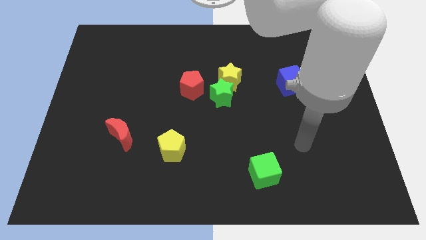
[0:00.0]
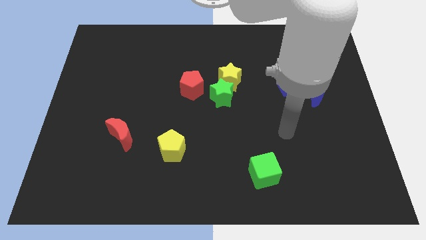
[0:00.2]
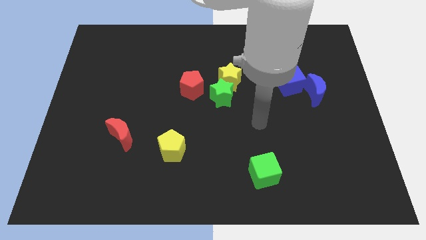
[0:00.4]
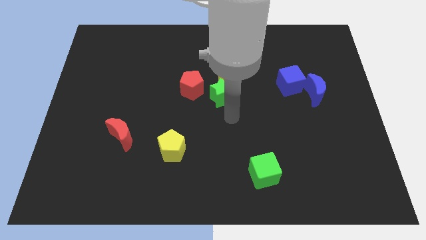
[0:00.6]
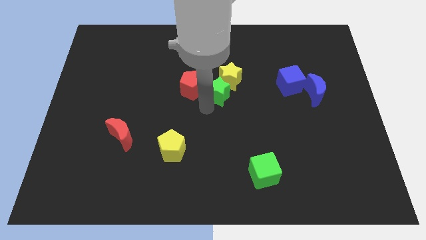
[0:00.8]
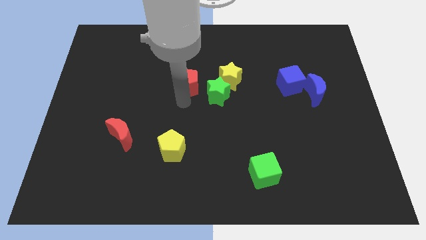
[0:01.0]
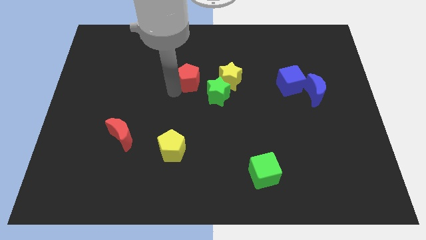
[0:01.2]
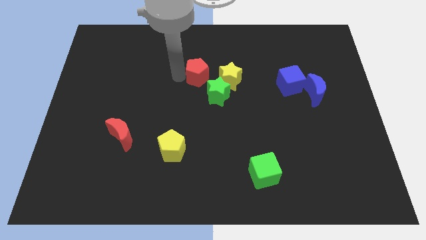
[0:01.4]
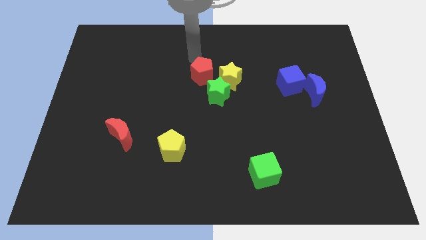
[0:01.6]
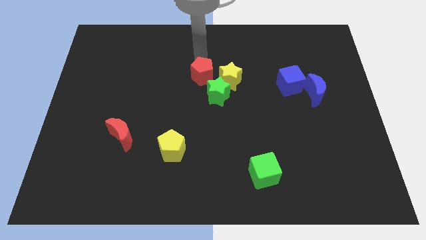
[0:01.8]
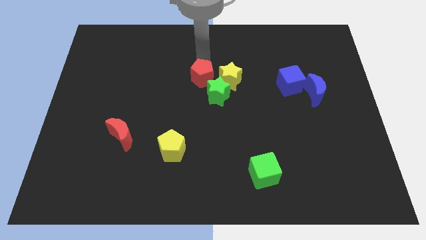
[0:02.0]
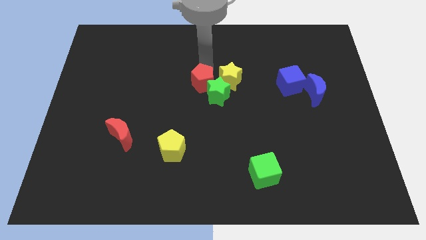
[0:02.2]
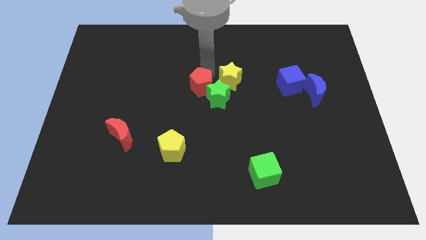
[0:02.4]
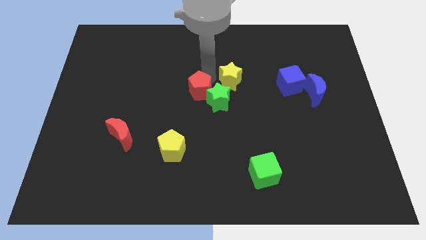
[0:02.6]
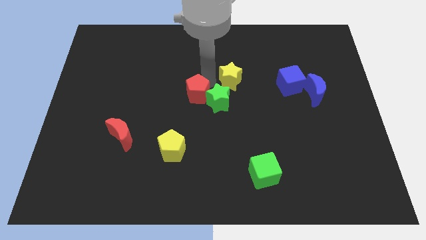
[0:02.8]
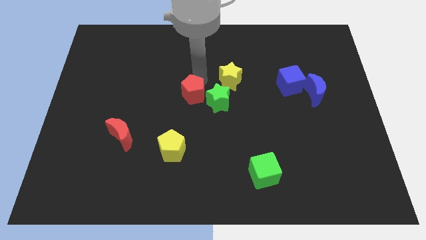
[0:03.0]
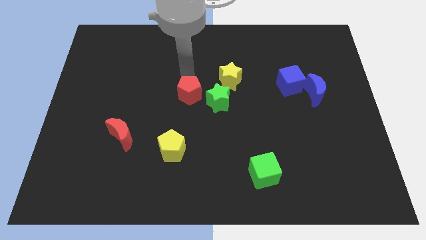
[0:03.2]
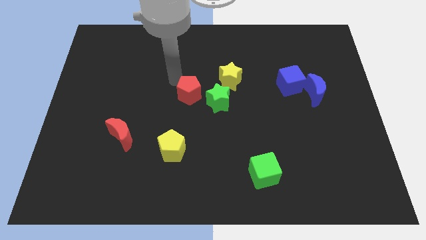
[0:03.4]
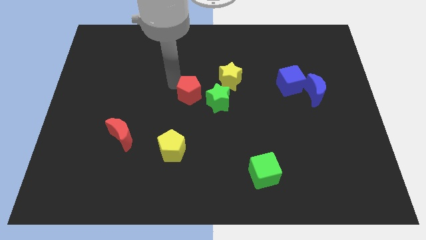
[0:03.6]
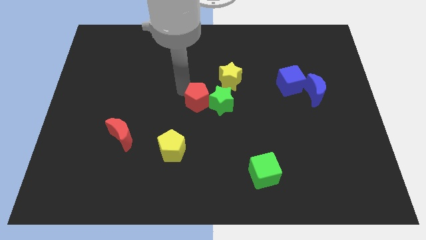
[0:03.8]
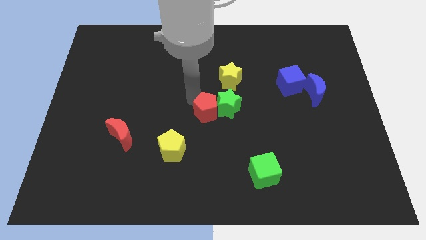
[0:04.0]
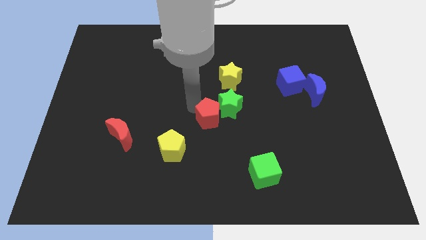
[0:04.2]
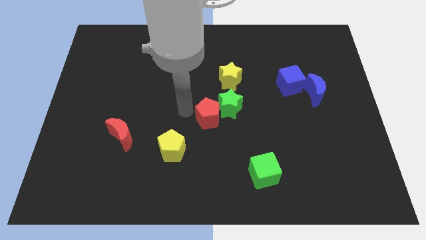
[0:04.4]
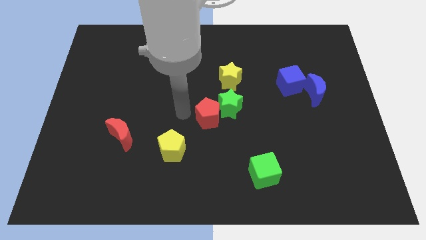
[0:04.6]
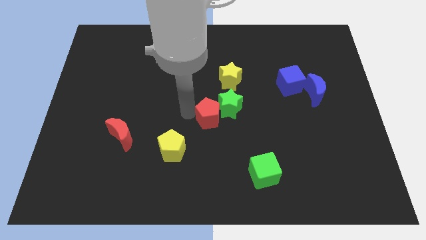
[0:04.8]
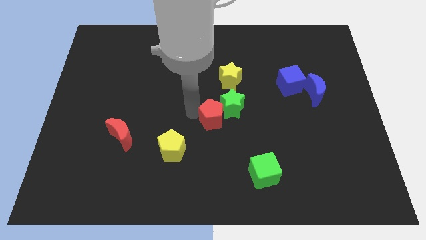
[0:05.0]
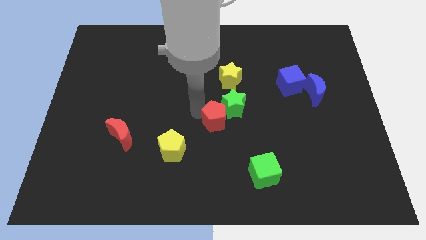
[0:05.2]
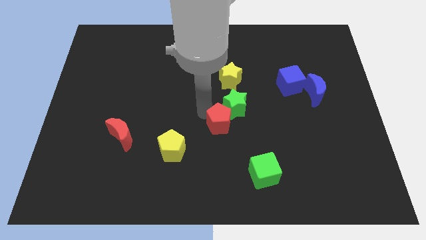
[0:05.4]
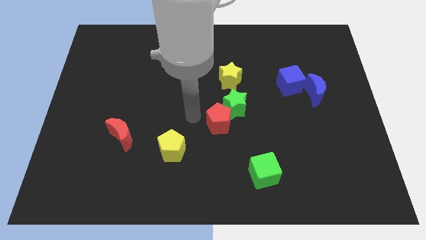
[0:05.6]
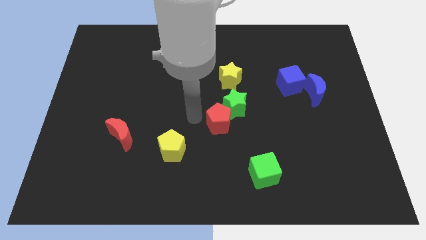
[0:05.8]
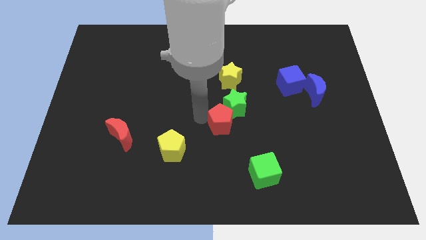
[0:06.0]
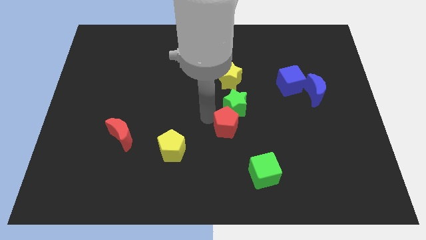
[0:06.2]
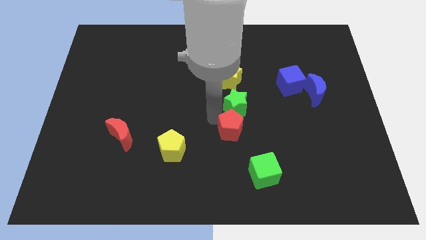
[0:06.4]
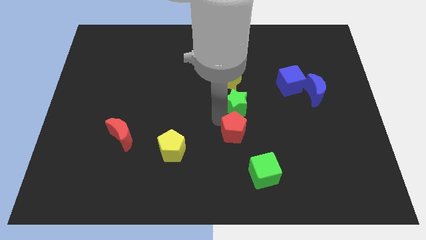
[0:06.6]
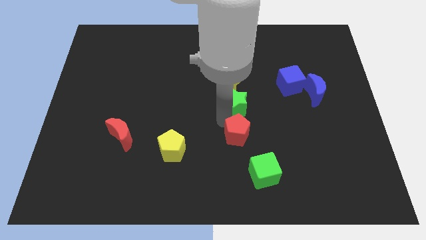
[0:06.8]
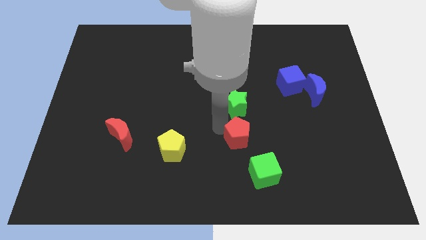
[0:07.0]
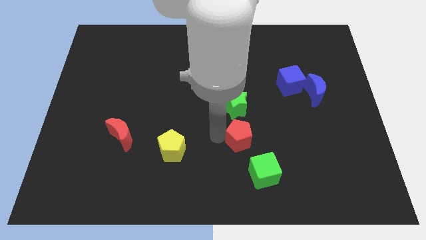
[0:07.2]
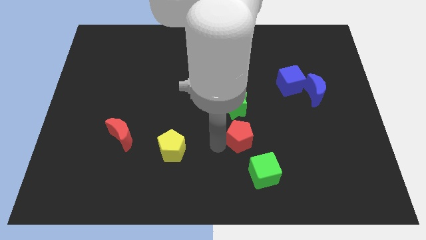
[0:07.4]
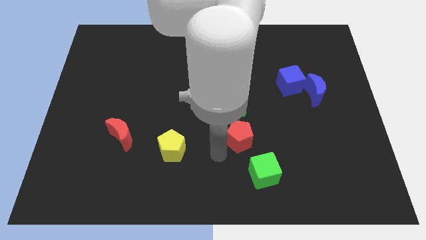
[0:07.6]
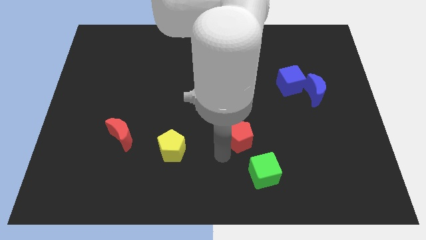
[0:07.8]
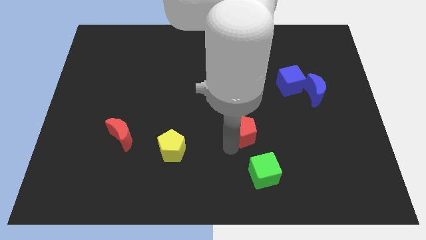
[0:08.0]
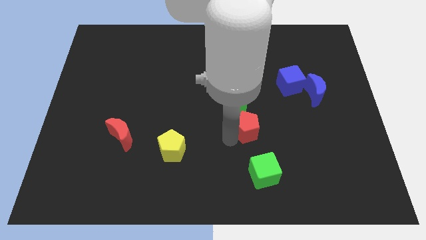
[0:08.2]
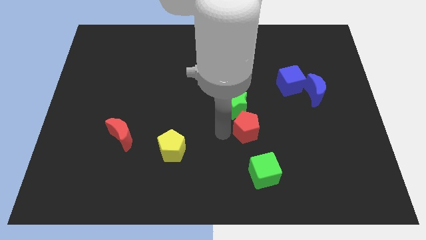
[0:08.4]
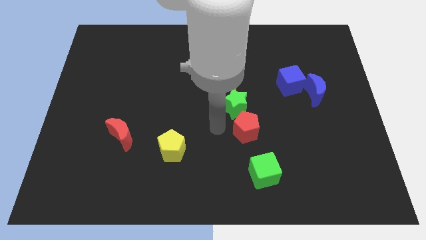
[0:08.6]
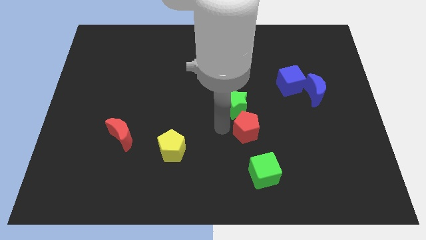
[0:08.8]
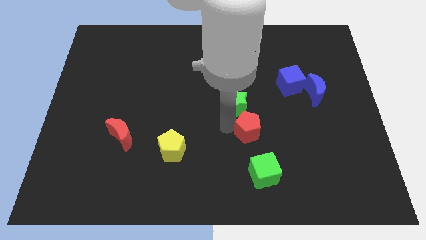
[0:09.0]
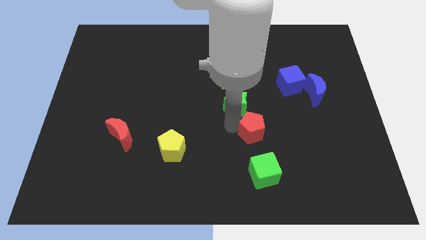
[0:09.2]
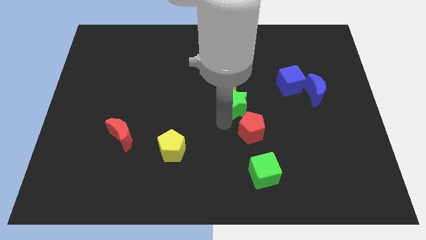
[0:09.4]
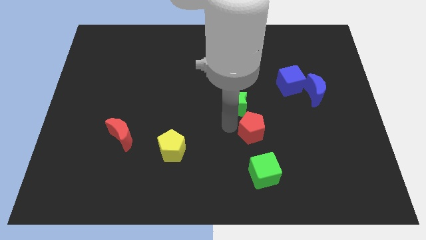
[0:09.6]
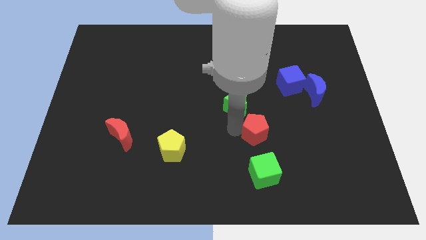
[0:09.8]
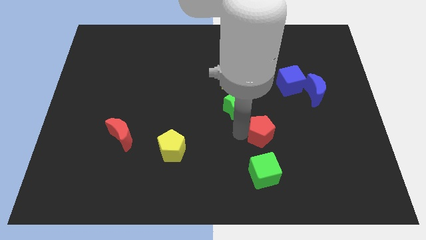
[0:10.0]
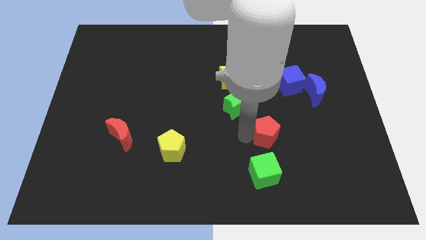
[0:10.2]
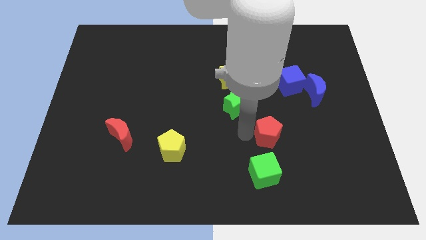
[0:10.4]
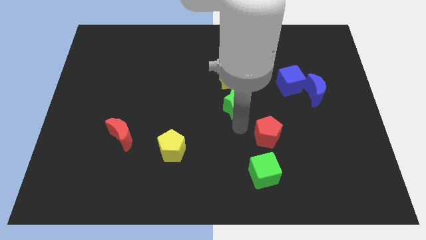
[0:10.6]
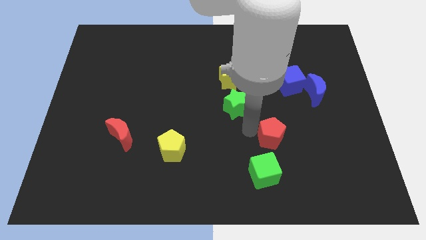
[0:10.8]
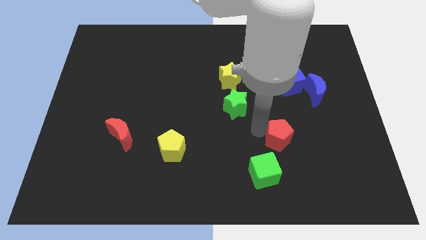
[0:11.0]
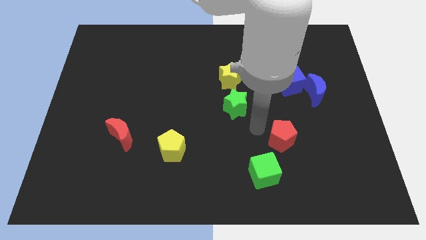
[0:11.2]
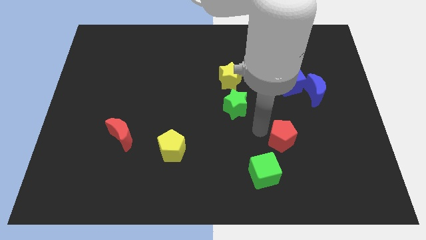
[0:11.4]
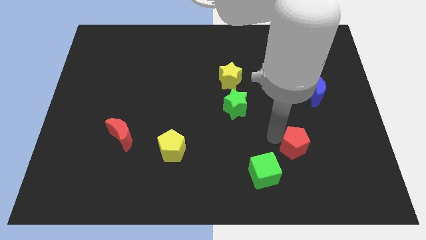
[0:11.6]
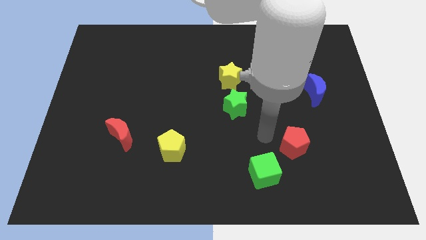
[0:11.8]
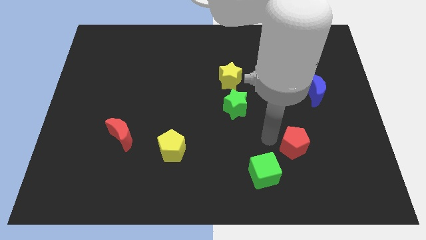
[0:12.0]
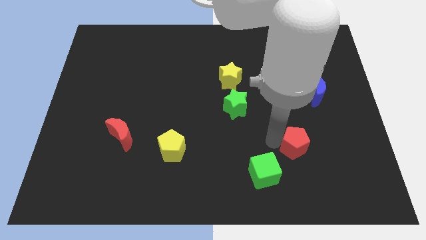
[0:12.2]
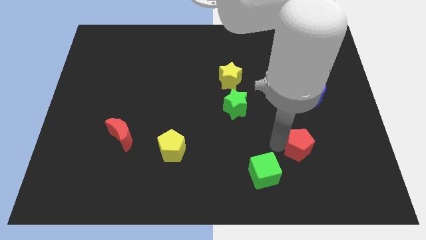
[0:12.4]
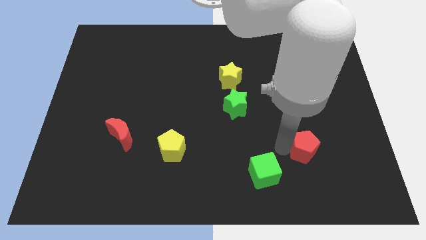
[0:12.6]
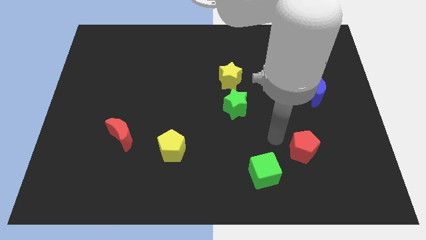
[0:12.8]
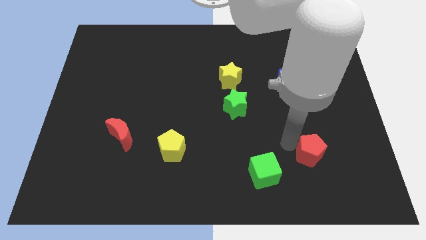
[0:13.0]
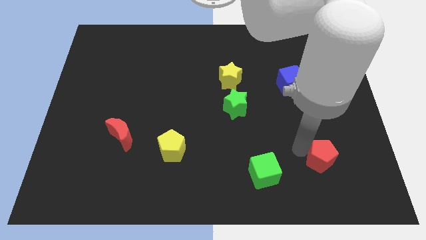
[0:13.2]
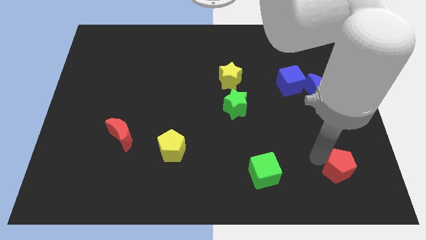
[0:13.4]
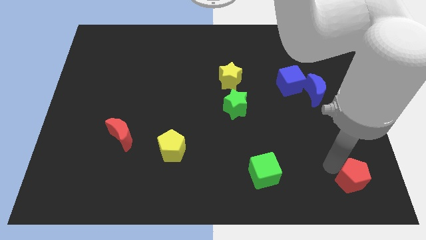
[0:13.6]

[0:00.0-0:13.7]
put the red pentagon to the bottom right of the board
